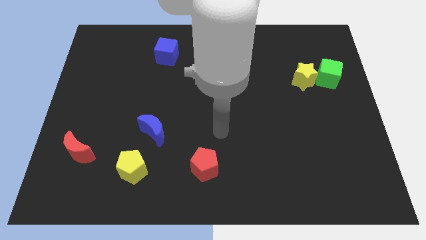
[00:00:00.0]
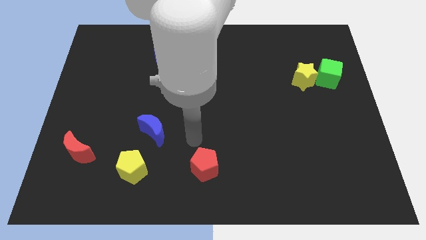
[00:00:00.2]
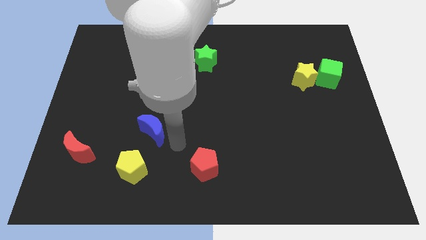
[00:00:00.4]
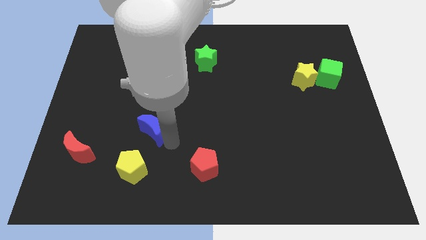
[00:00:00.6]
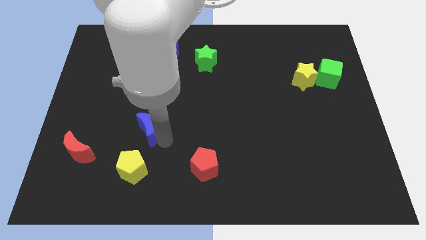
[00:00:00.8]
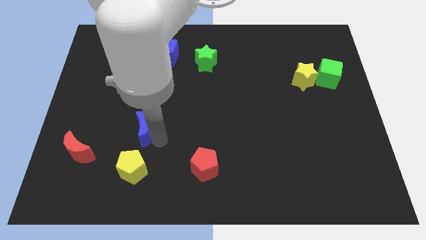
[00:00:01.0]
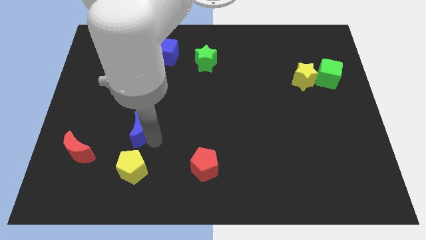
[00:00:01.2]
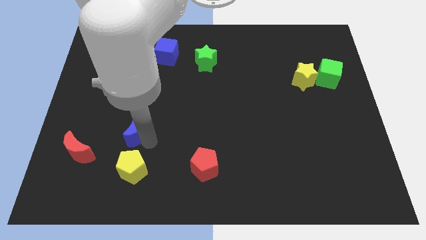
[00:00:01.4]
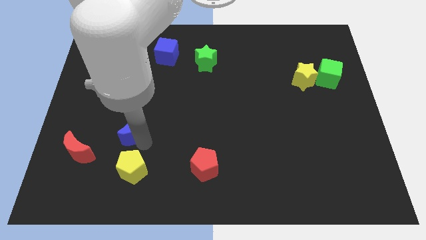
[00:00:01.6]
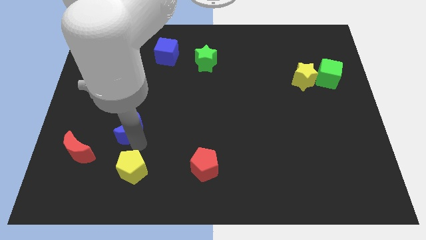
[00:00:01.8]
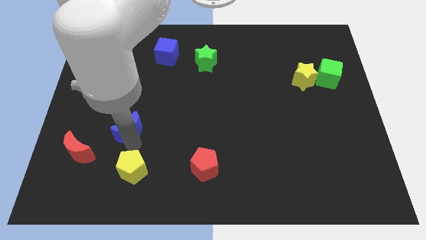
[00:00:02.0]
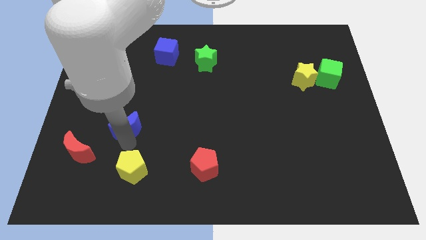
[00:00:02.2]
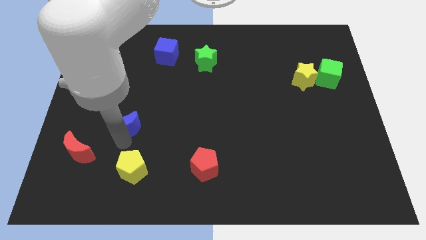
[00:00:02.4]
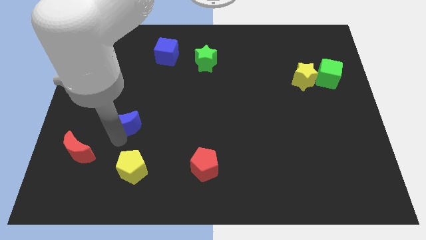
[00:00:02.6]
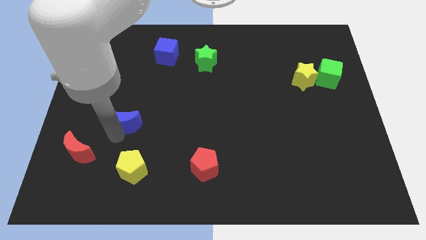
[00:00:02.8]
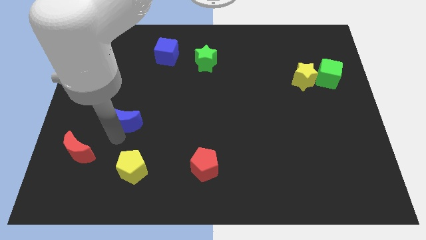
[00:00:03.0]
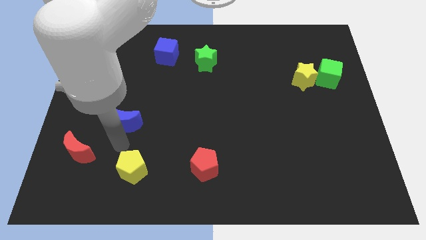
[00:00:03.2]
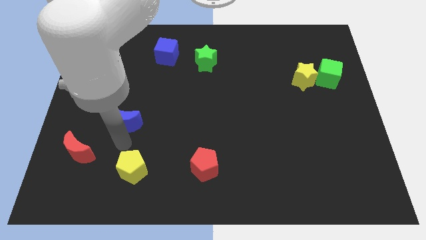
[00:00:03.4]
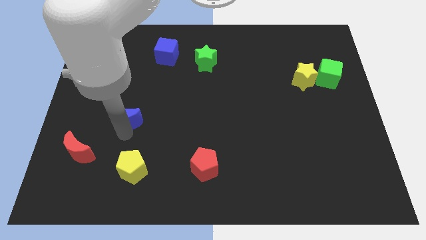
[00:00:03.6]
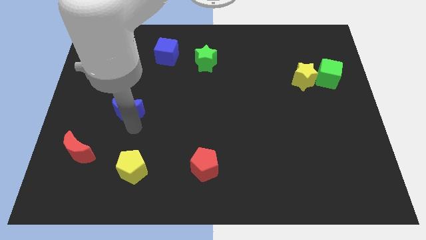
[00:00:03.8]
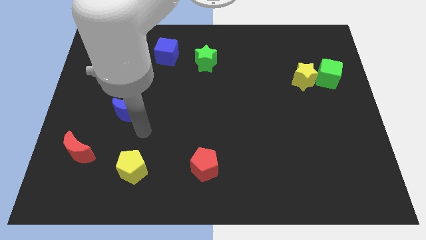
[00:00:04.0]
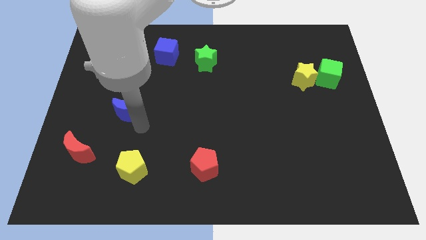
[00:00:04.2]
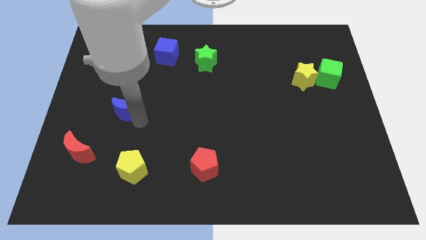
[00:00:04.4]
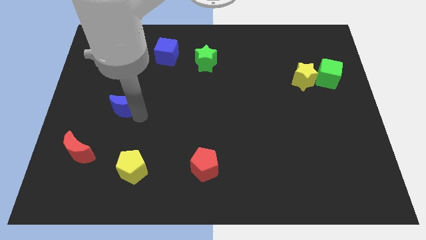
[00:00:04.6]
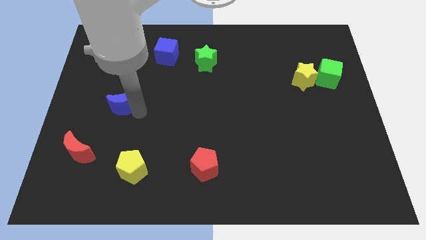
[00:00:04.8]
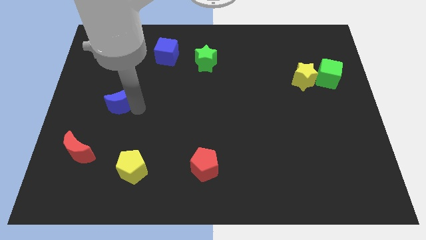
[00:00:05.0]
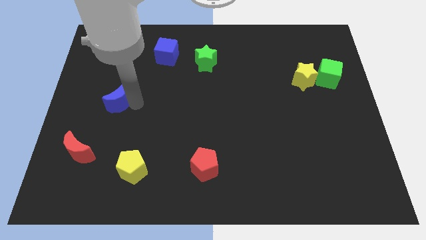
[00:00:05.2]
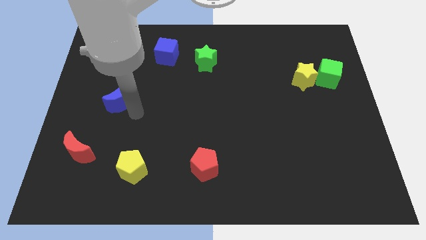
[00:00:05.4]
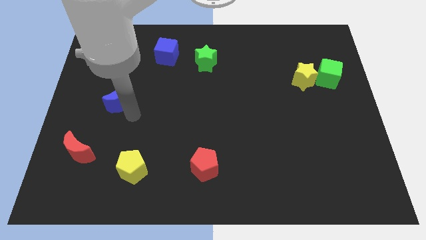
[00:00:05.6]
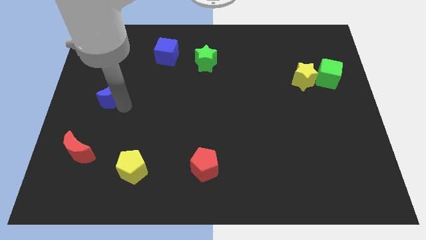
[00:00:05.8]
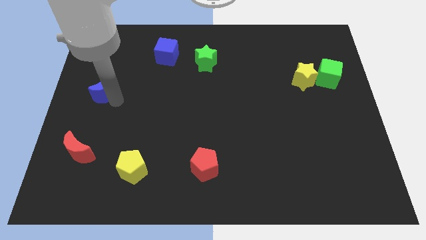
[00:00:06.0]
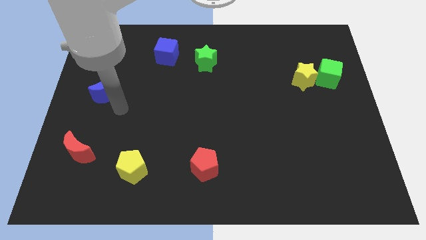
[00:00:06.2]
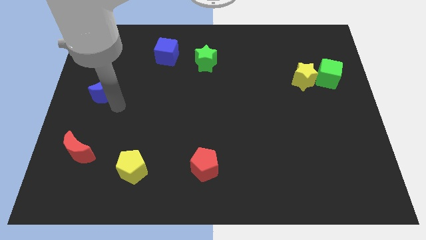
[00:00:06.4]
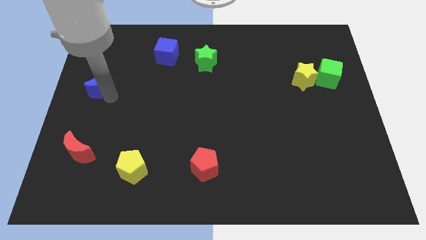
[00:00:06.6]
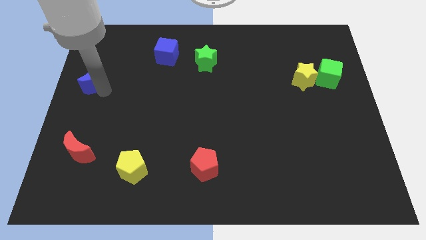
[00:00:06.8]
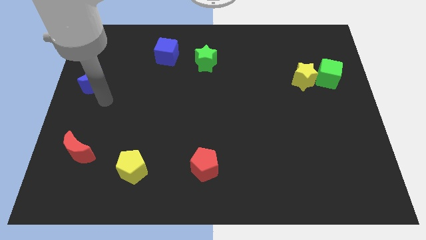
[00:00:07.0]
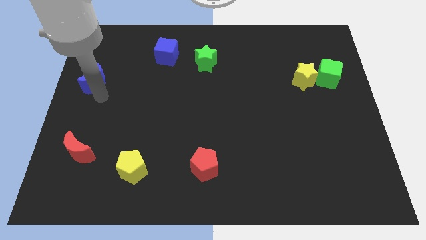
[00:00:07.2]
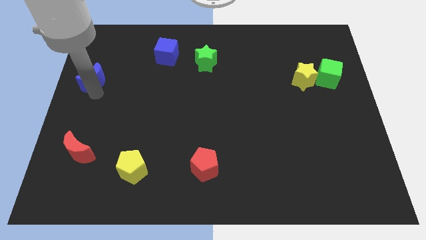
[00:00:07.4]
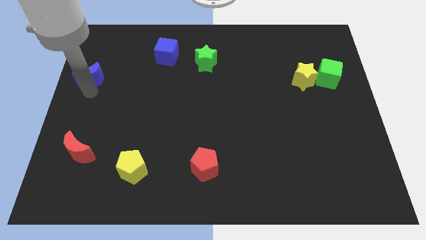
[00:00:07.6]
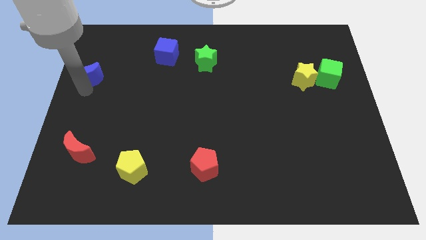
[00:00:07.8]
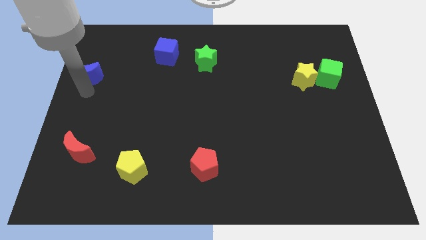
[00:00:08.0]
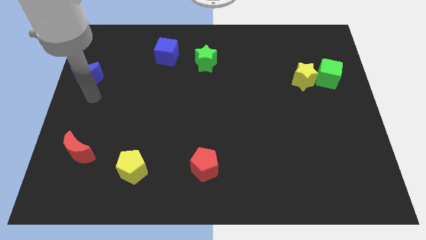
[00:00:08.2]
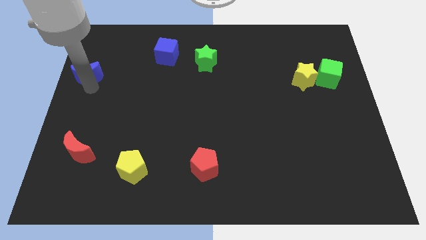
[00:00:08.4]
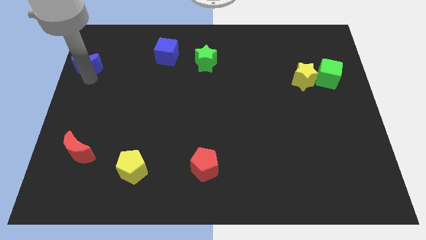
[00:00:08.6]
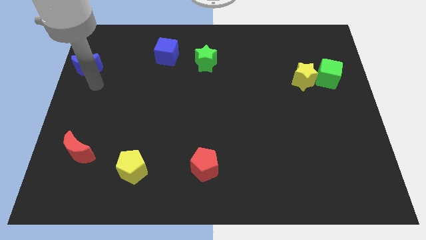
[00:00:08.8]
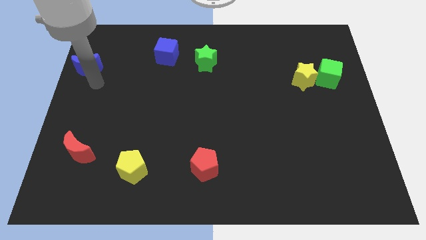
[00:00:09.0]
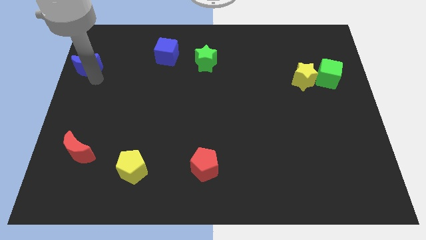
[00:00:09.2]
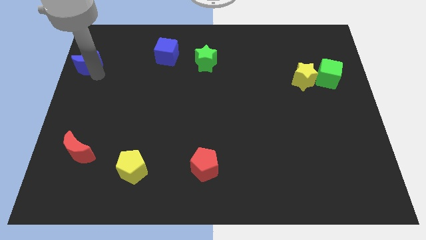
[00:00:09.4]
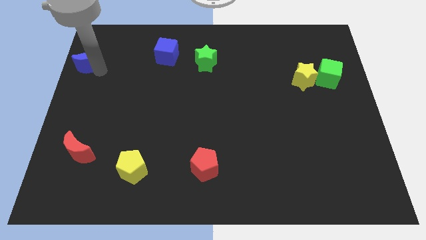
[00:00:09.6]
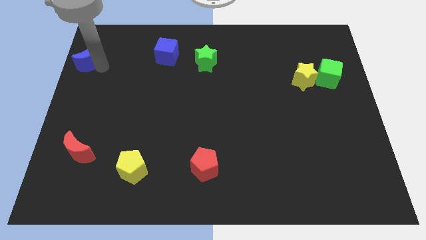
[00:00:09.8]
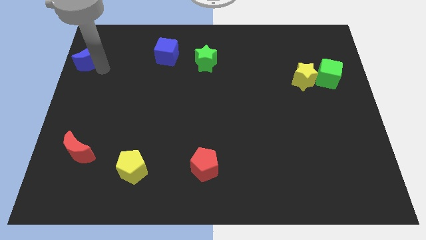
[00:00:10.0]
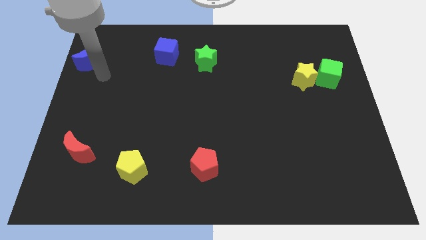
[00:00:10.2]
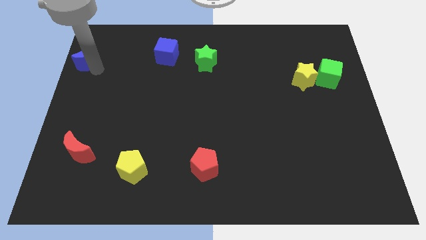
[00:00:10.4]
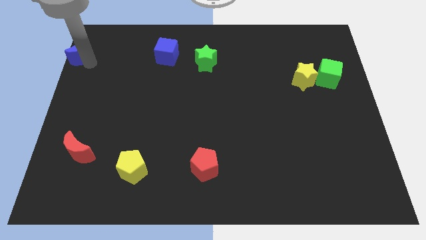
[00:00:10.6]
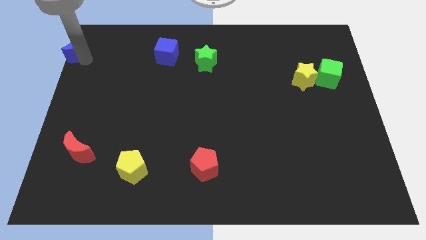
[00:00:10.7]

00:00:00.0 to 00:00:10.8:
slide the blue moon to the top left corner

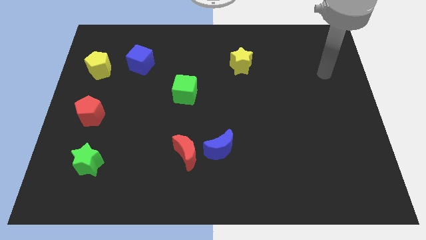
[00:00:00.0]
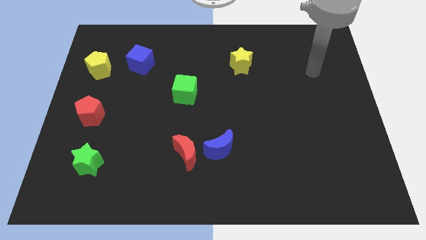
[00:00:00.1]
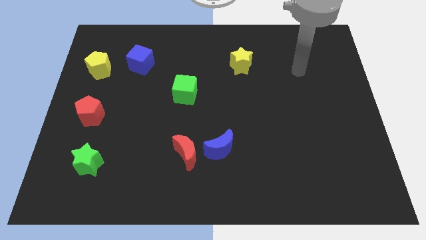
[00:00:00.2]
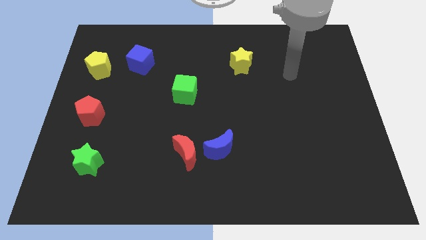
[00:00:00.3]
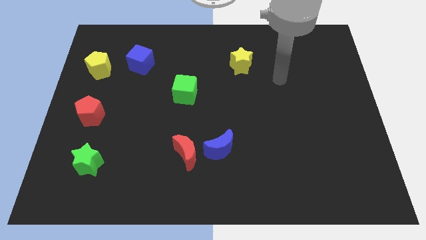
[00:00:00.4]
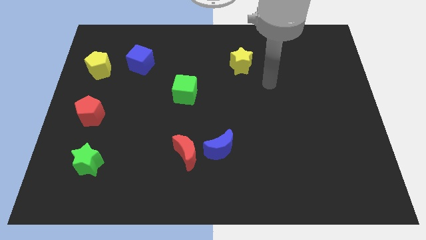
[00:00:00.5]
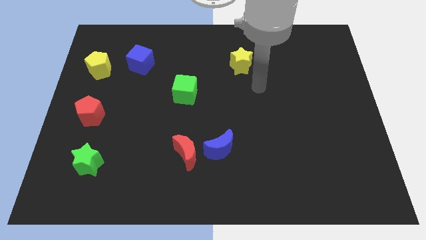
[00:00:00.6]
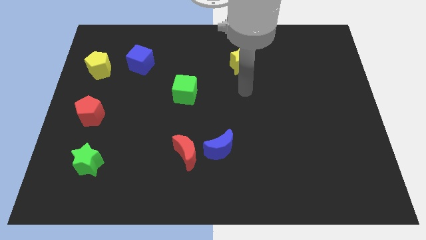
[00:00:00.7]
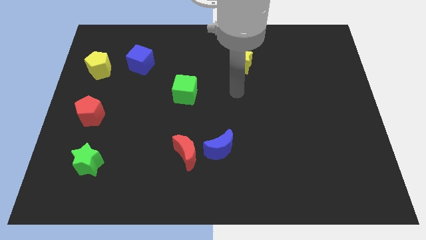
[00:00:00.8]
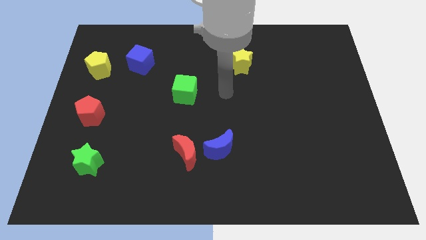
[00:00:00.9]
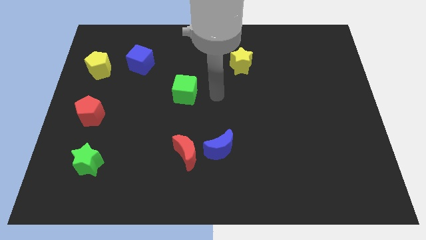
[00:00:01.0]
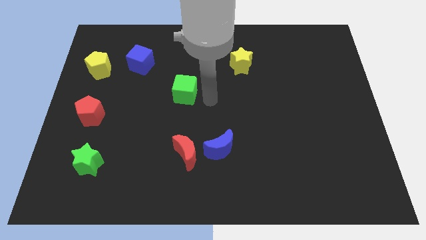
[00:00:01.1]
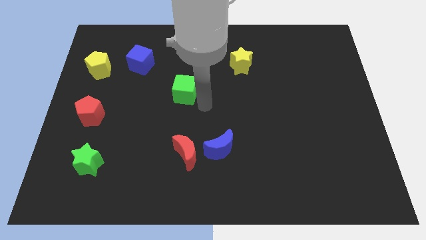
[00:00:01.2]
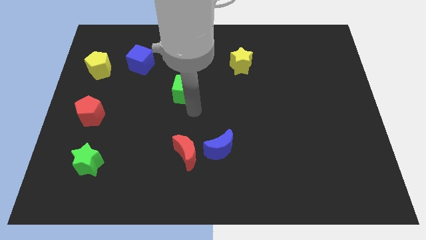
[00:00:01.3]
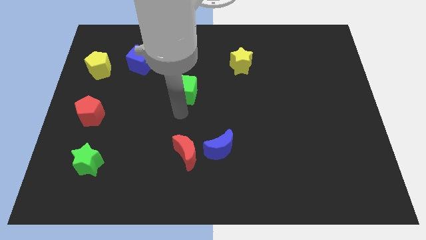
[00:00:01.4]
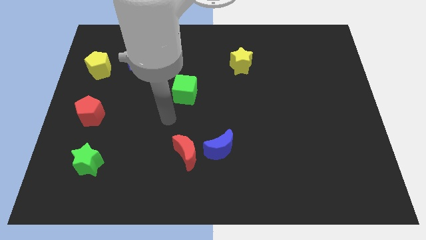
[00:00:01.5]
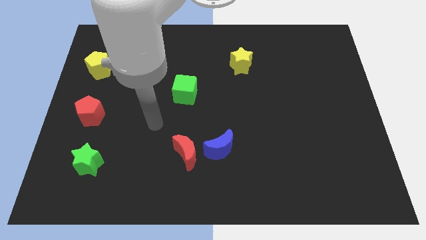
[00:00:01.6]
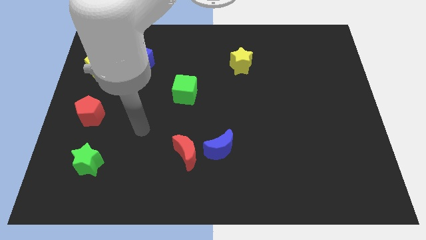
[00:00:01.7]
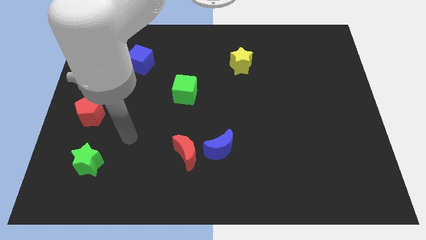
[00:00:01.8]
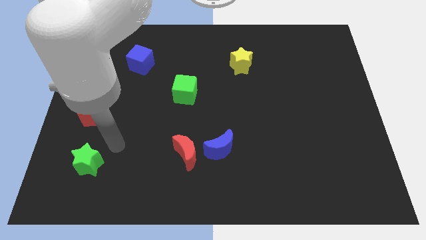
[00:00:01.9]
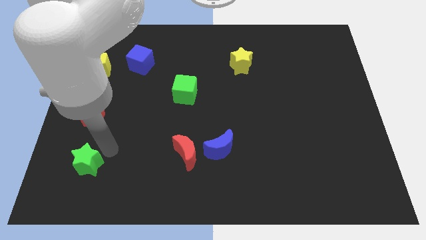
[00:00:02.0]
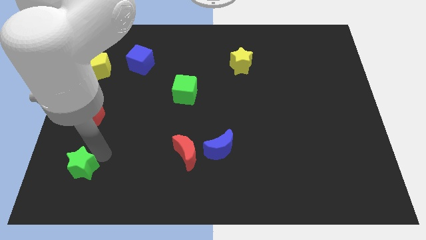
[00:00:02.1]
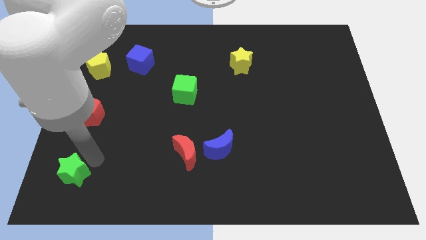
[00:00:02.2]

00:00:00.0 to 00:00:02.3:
move the green star to the lower left corner
